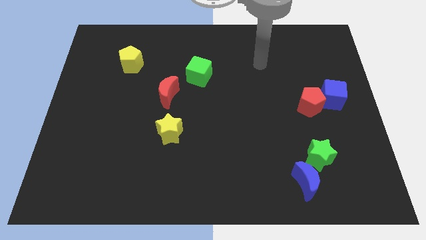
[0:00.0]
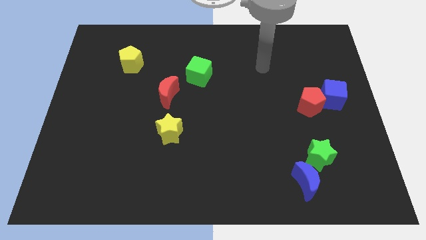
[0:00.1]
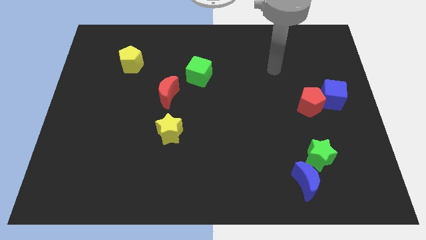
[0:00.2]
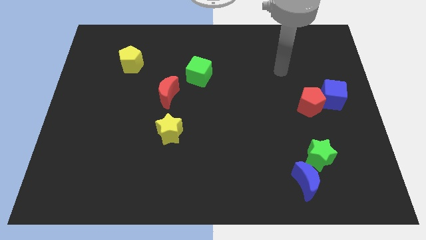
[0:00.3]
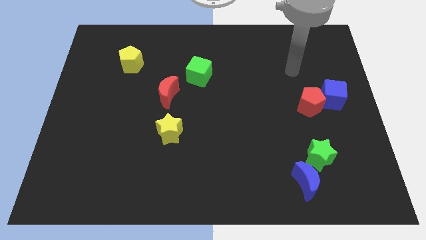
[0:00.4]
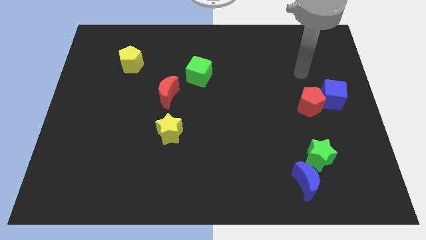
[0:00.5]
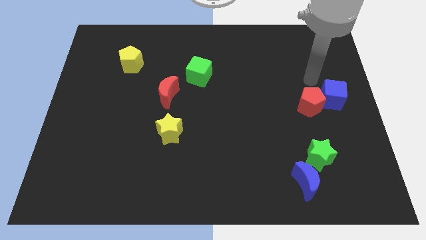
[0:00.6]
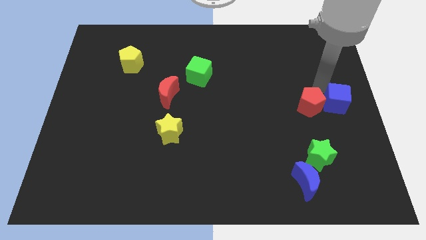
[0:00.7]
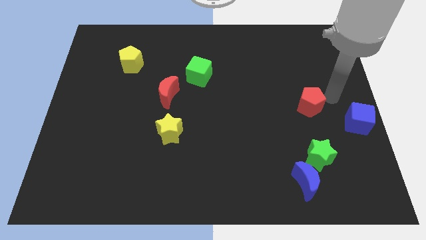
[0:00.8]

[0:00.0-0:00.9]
separate the red pentagon from the blue cube

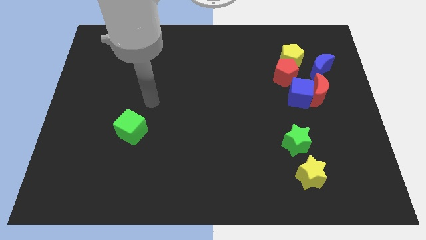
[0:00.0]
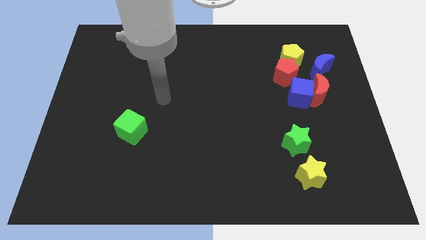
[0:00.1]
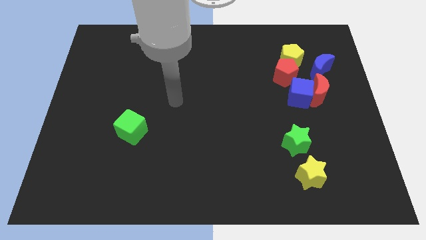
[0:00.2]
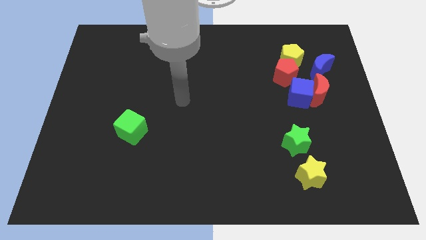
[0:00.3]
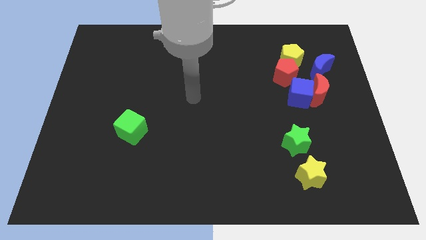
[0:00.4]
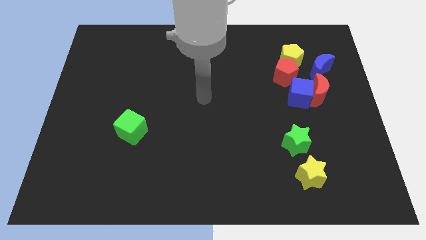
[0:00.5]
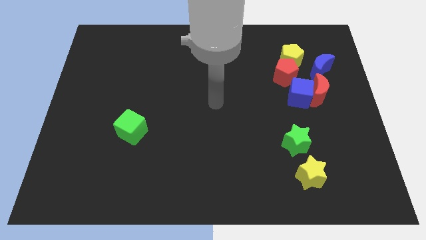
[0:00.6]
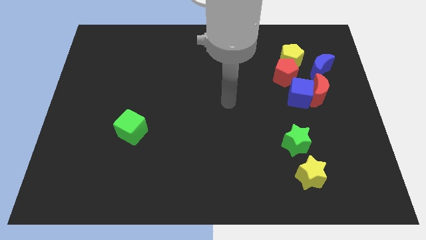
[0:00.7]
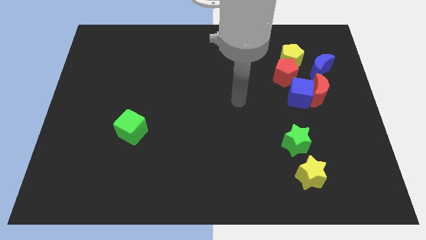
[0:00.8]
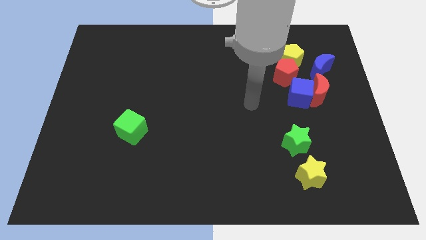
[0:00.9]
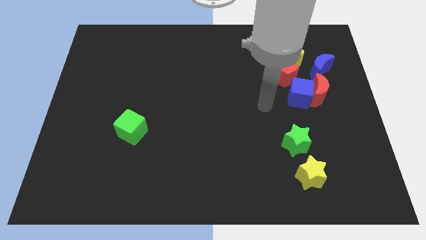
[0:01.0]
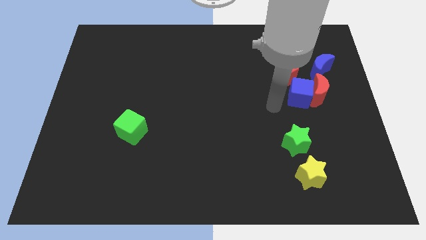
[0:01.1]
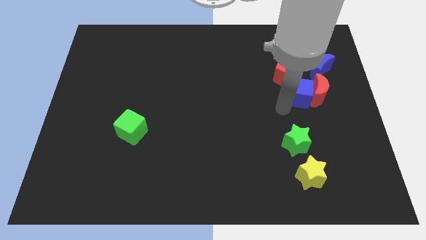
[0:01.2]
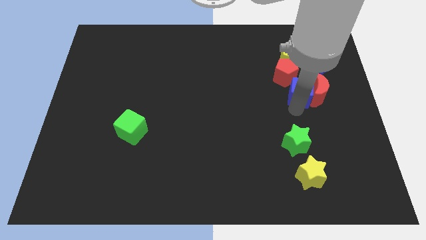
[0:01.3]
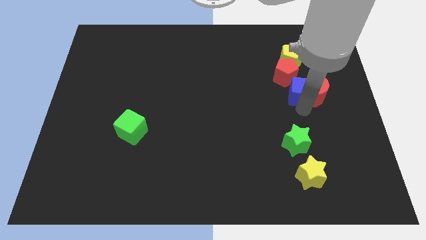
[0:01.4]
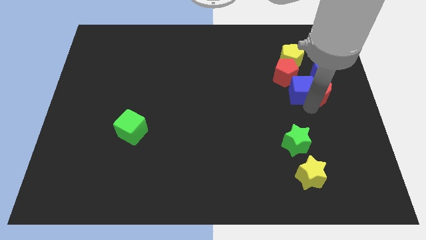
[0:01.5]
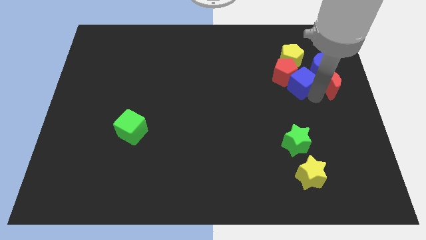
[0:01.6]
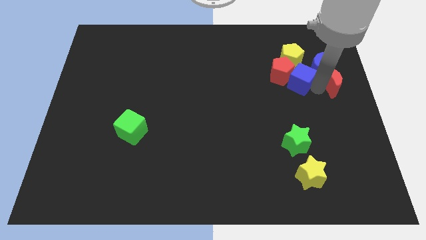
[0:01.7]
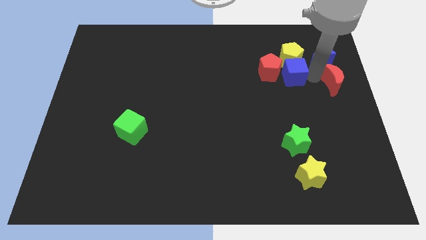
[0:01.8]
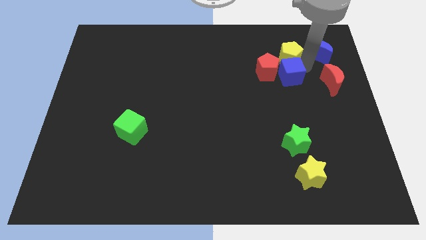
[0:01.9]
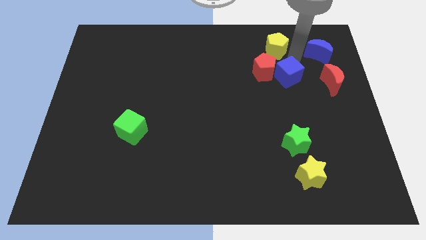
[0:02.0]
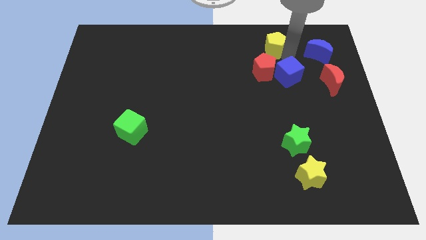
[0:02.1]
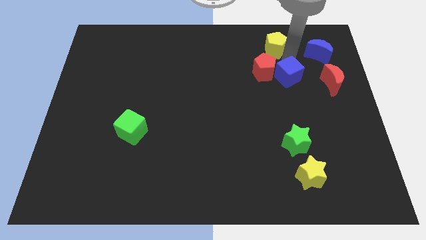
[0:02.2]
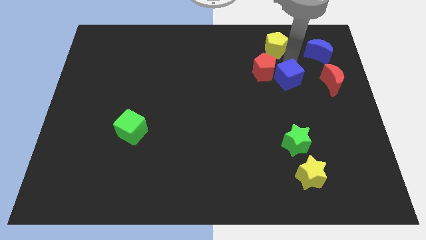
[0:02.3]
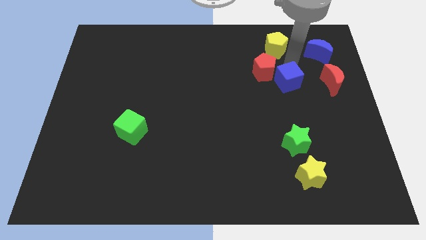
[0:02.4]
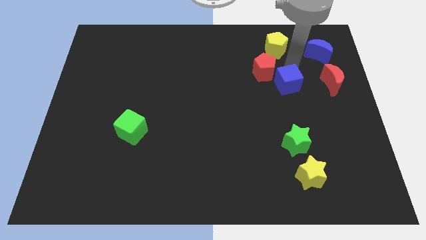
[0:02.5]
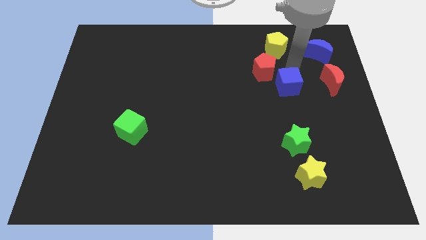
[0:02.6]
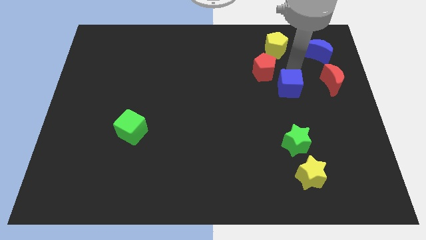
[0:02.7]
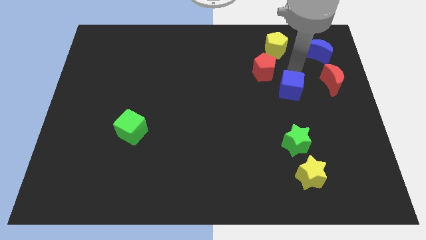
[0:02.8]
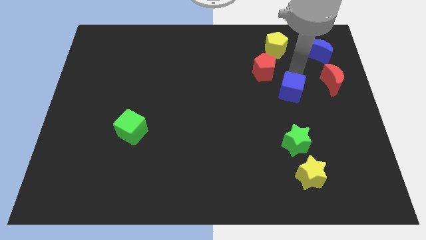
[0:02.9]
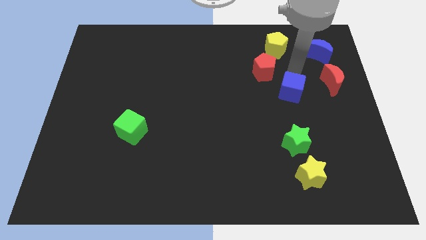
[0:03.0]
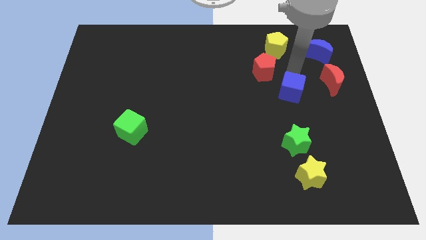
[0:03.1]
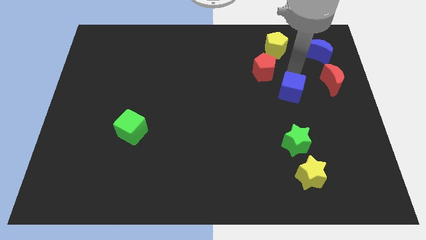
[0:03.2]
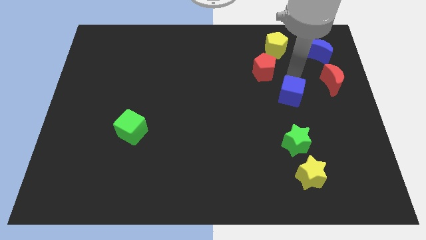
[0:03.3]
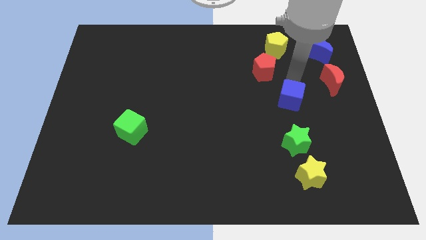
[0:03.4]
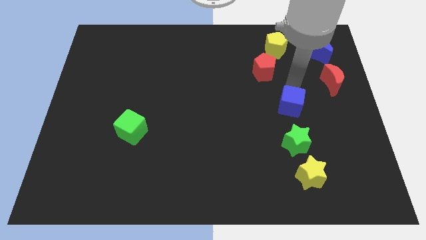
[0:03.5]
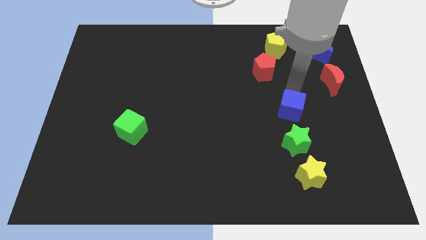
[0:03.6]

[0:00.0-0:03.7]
move the blue cube away from the red moon and red pentagon

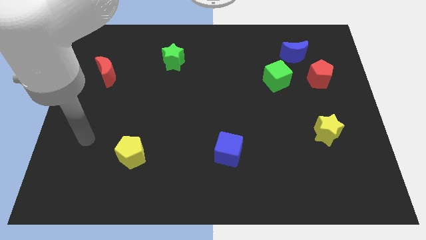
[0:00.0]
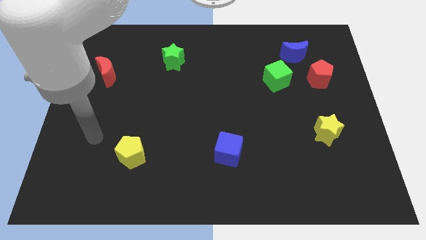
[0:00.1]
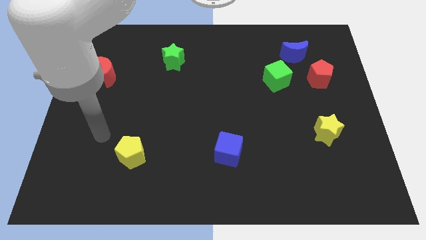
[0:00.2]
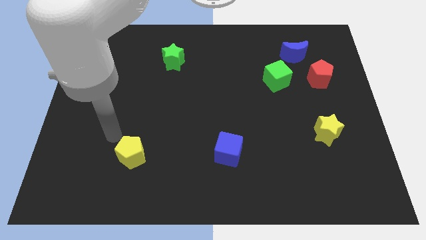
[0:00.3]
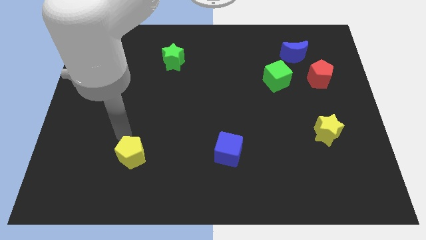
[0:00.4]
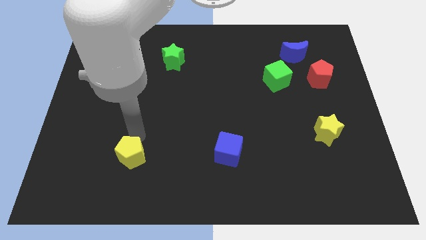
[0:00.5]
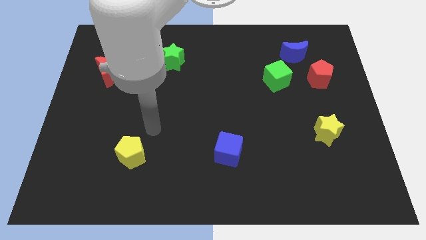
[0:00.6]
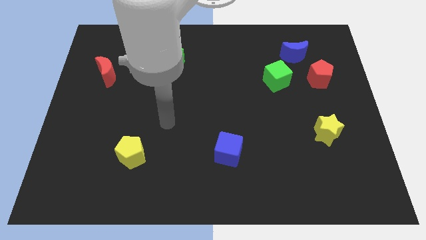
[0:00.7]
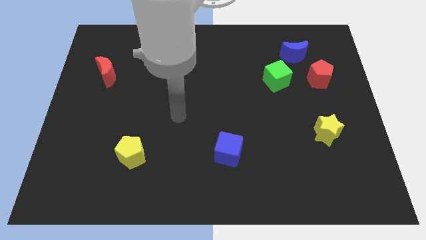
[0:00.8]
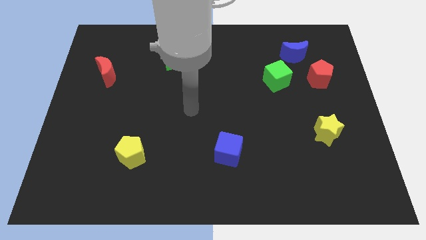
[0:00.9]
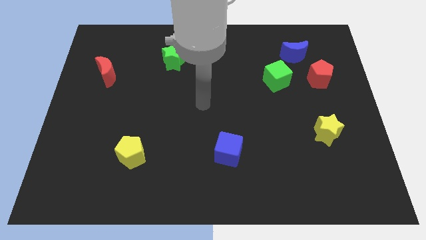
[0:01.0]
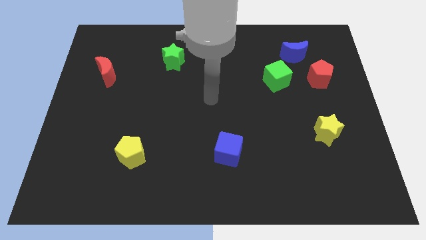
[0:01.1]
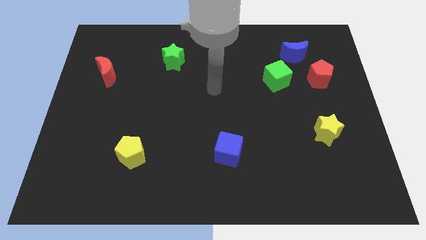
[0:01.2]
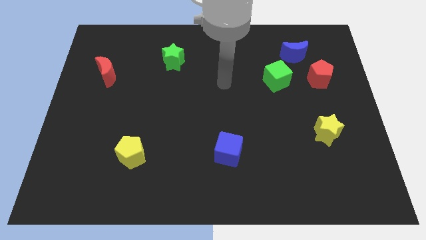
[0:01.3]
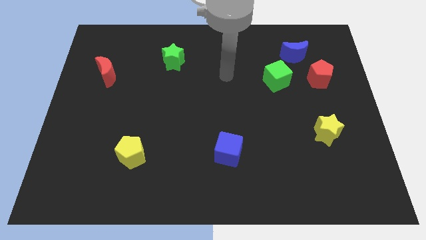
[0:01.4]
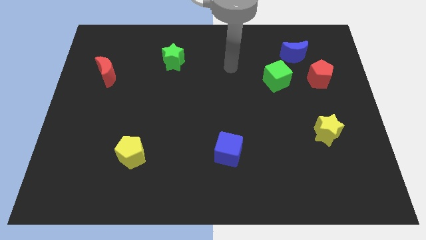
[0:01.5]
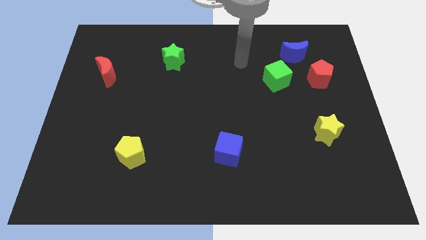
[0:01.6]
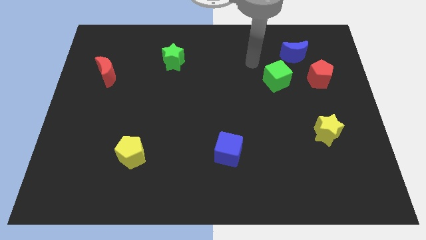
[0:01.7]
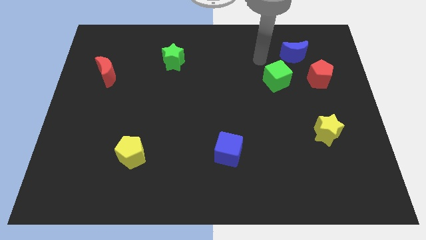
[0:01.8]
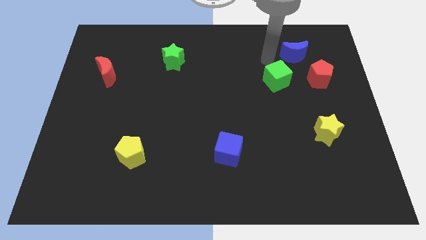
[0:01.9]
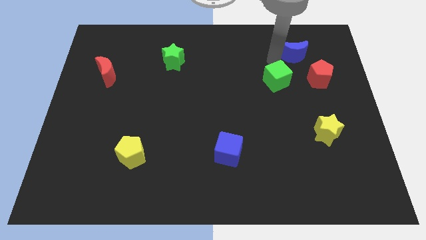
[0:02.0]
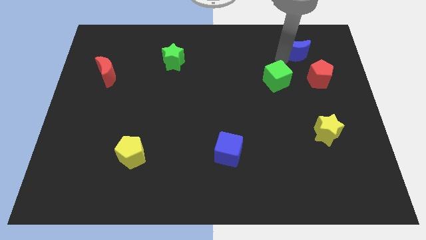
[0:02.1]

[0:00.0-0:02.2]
pull the red pentagon apart from the blue moon

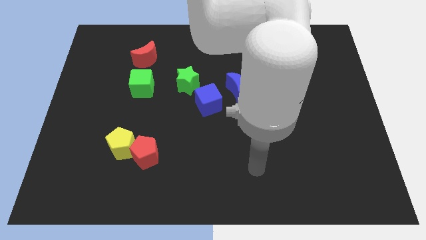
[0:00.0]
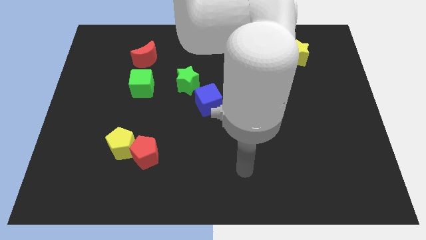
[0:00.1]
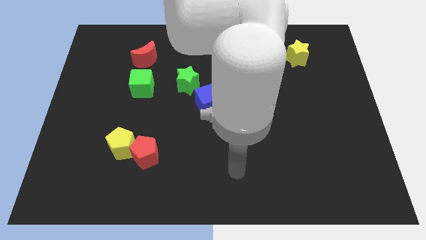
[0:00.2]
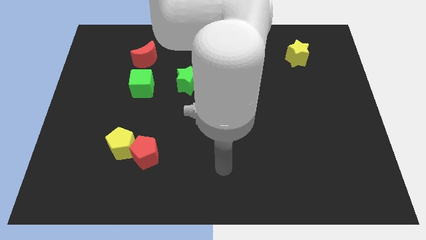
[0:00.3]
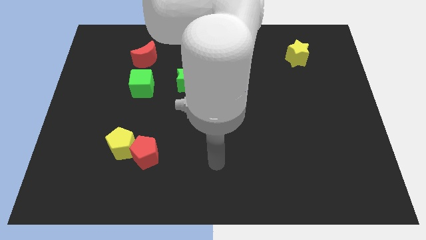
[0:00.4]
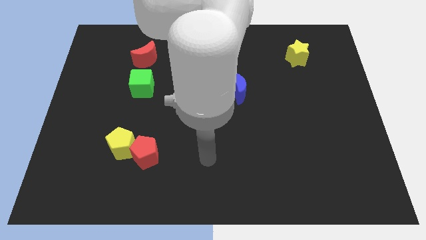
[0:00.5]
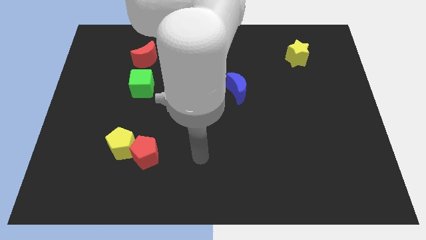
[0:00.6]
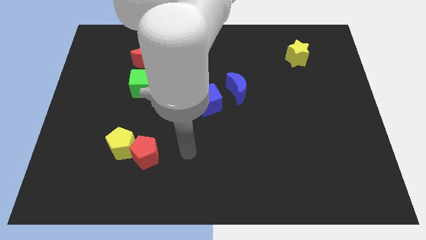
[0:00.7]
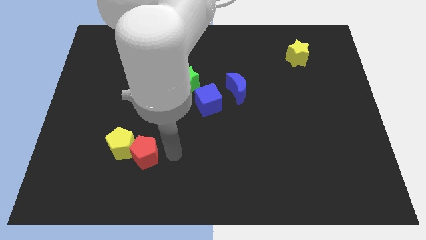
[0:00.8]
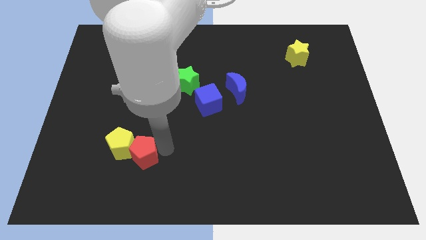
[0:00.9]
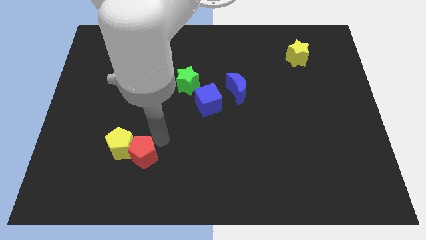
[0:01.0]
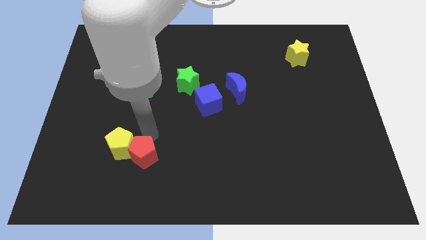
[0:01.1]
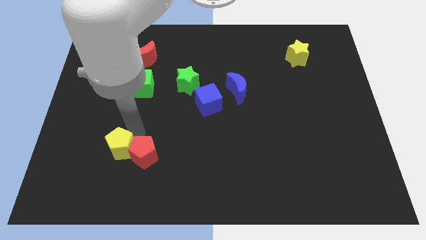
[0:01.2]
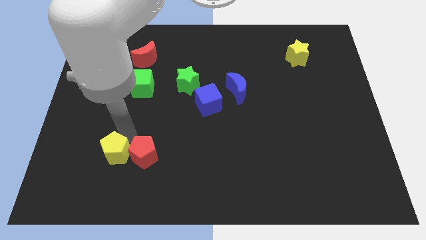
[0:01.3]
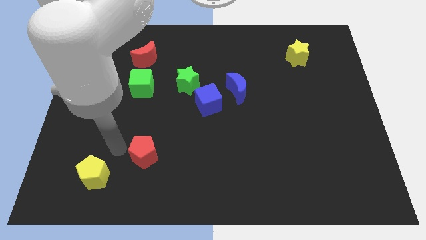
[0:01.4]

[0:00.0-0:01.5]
move the red pentagon away from the yellow pentagon

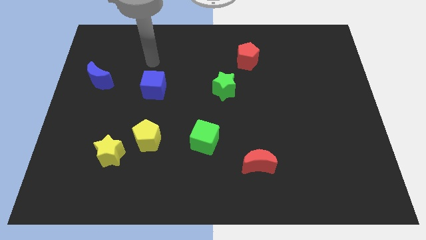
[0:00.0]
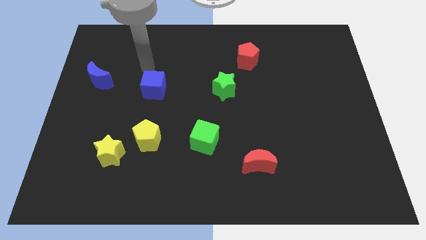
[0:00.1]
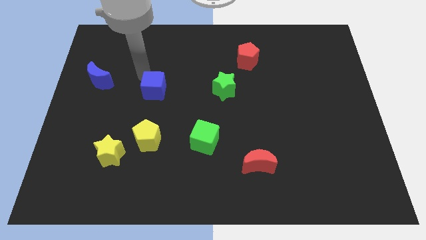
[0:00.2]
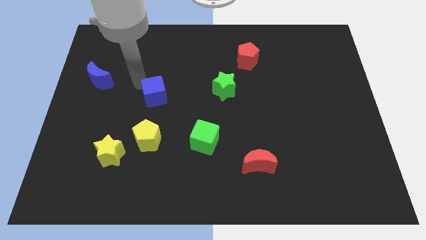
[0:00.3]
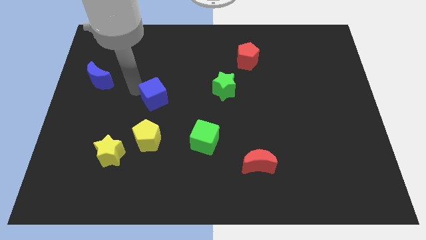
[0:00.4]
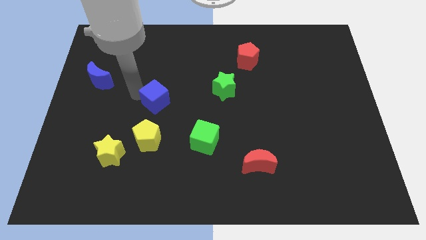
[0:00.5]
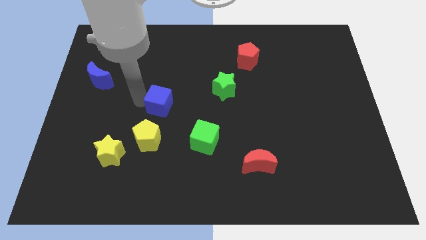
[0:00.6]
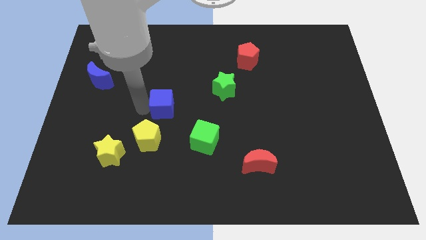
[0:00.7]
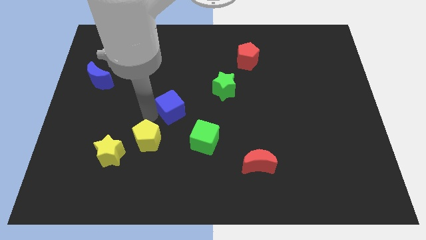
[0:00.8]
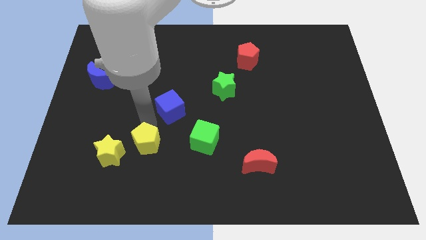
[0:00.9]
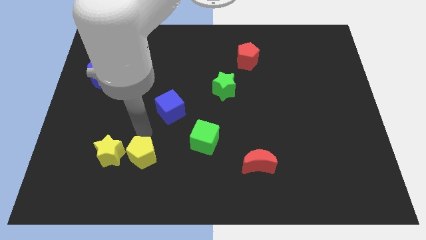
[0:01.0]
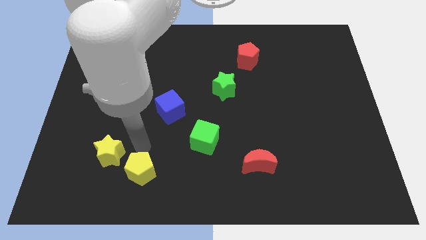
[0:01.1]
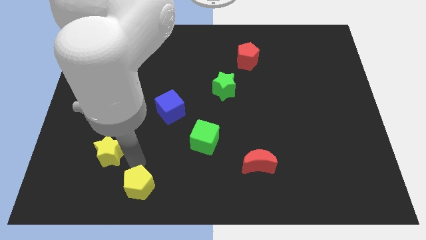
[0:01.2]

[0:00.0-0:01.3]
separate the yellow star from the yellow pentagon
